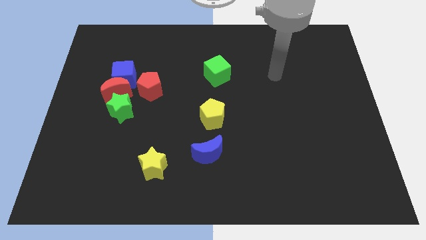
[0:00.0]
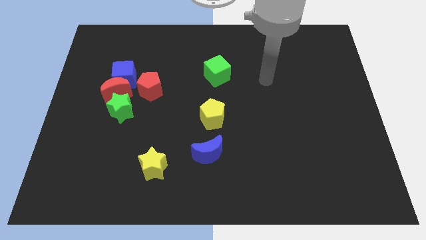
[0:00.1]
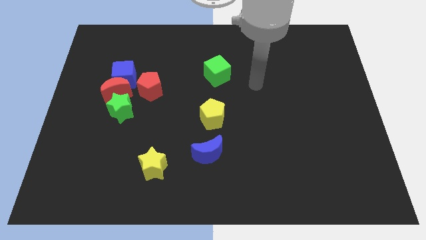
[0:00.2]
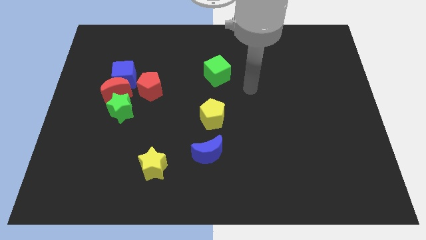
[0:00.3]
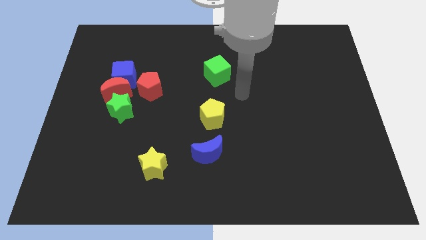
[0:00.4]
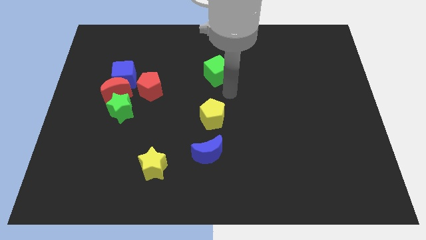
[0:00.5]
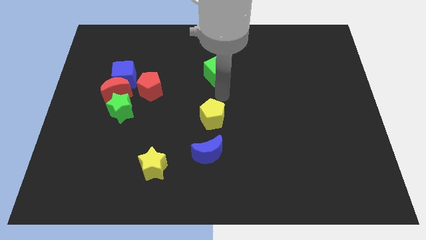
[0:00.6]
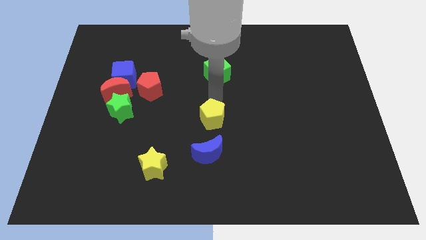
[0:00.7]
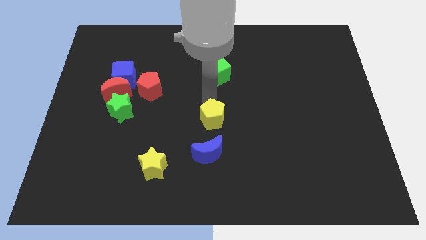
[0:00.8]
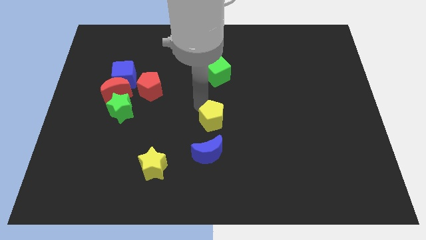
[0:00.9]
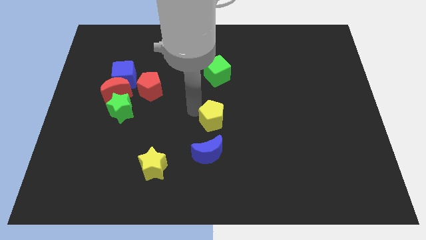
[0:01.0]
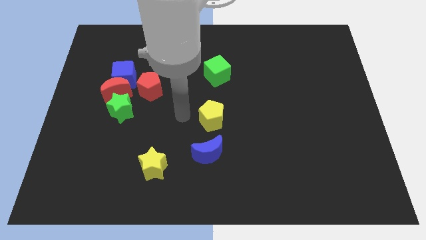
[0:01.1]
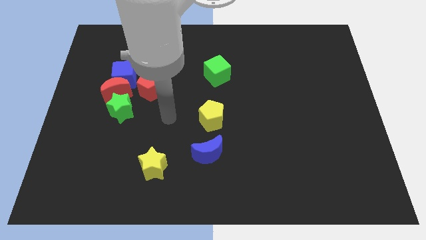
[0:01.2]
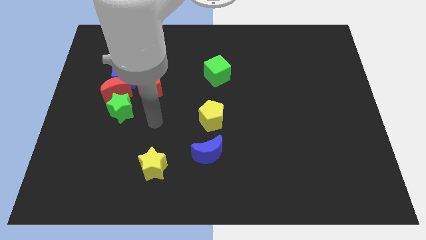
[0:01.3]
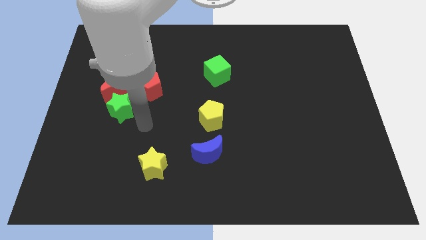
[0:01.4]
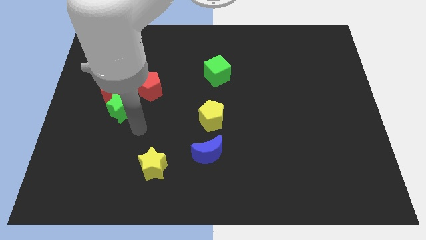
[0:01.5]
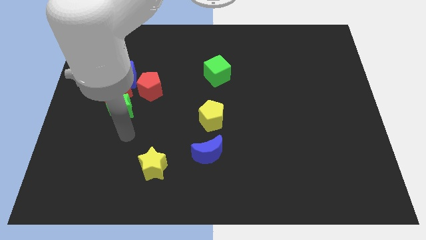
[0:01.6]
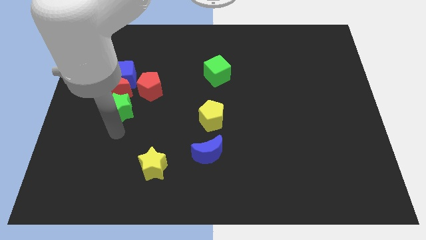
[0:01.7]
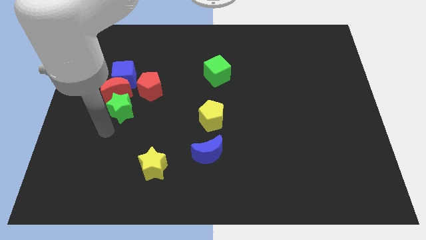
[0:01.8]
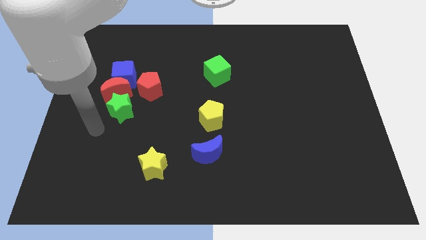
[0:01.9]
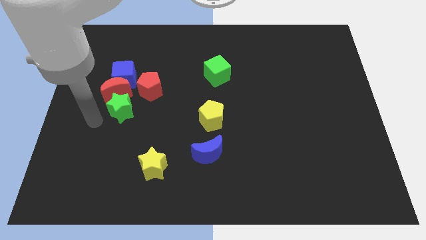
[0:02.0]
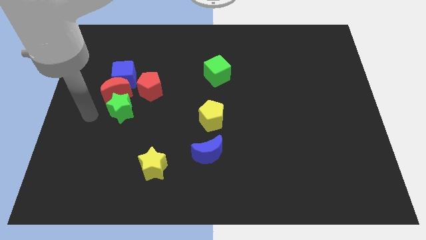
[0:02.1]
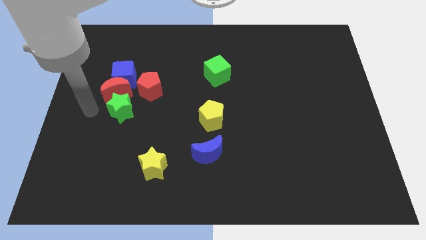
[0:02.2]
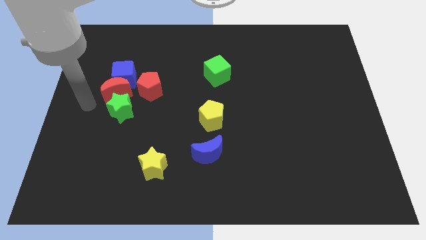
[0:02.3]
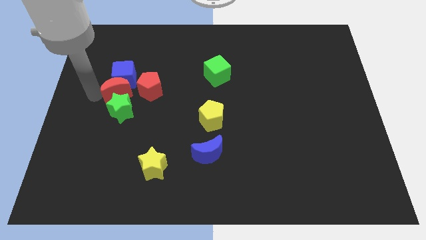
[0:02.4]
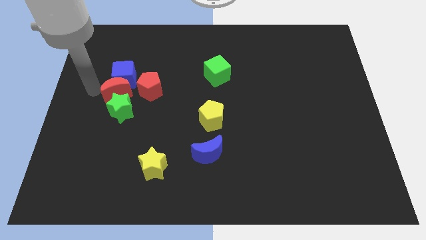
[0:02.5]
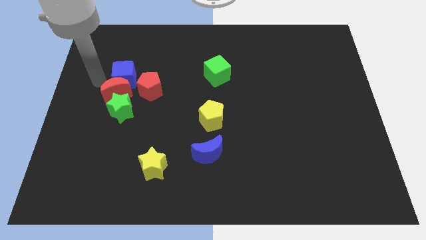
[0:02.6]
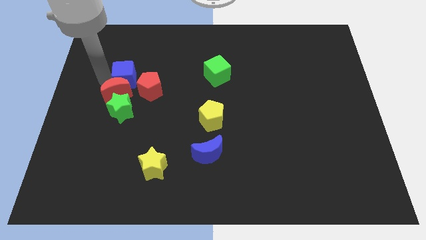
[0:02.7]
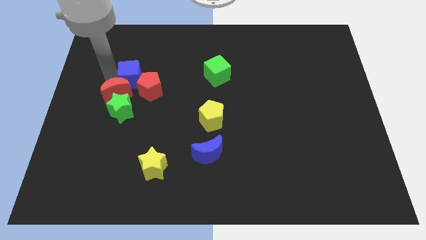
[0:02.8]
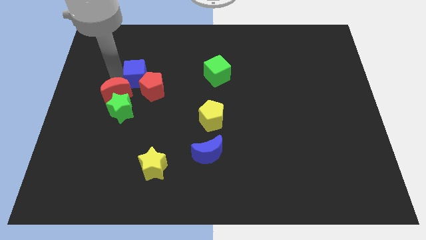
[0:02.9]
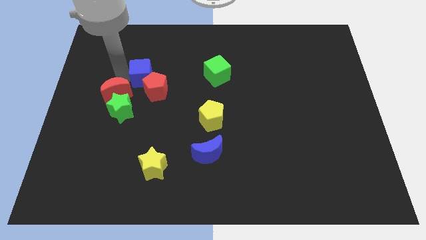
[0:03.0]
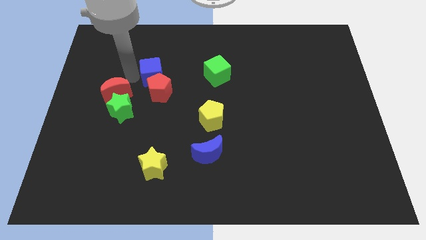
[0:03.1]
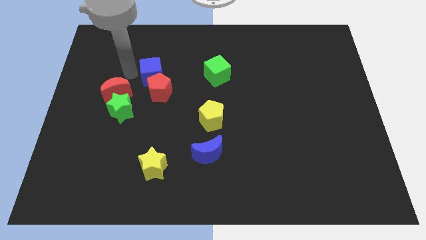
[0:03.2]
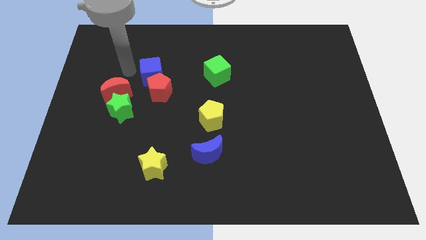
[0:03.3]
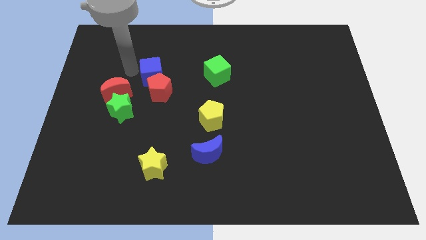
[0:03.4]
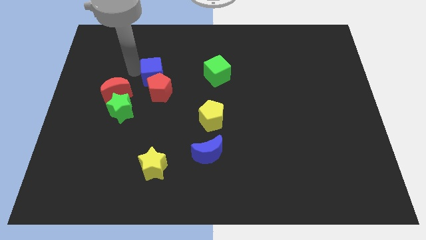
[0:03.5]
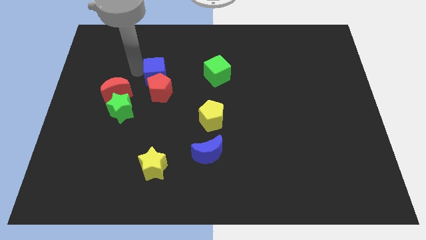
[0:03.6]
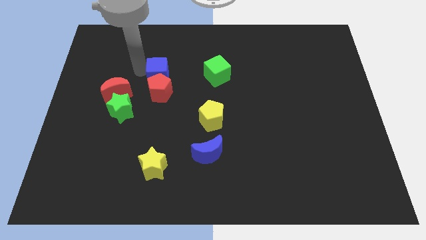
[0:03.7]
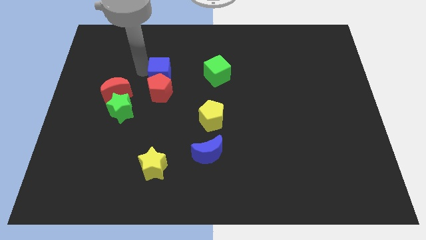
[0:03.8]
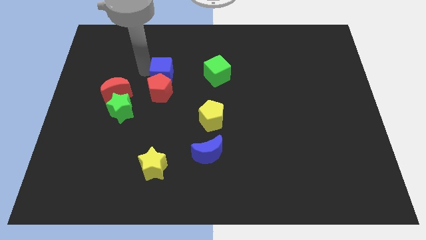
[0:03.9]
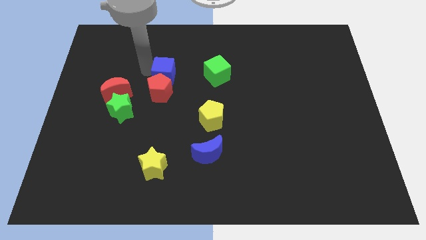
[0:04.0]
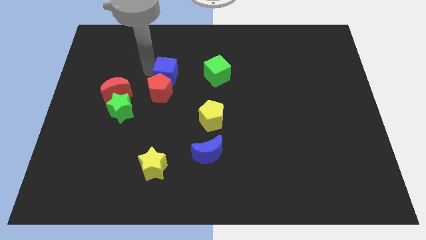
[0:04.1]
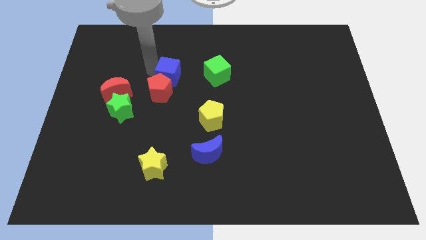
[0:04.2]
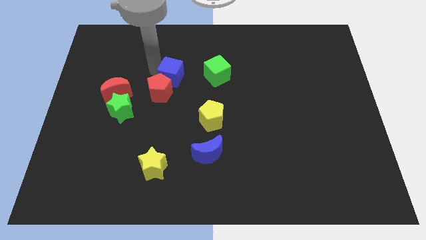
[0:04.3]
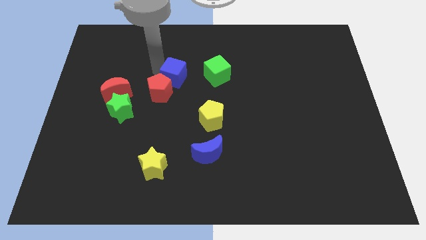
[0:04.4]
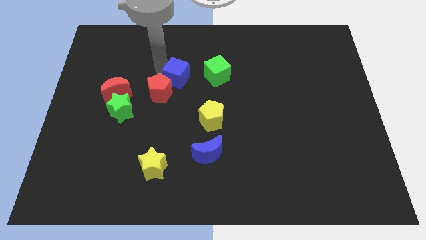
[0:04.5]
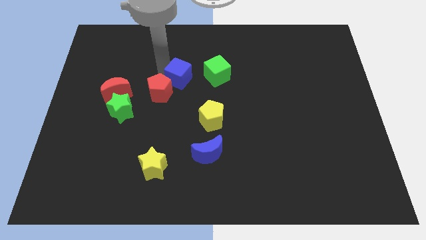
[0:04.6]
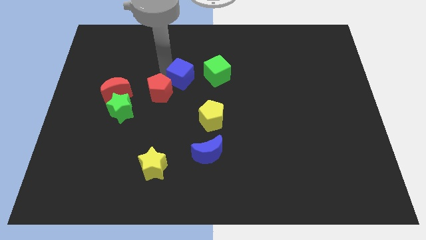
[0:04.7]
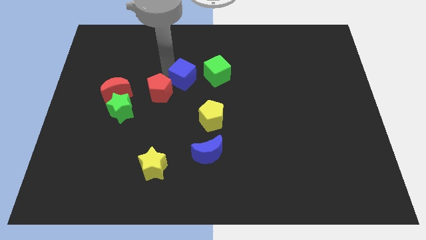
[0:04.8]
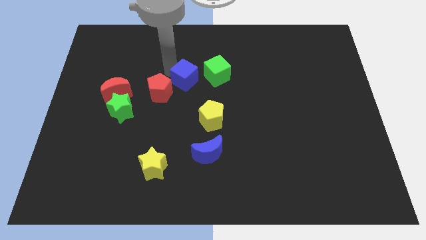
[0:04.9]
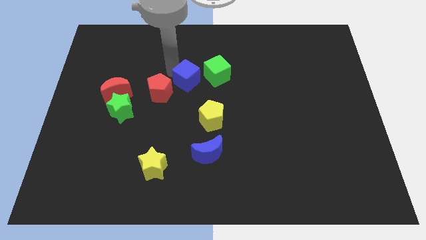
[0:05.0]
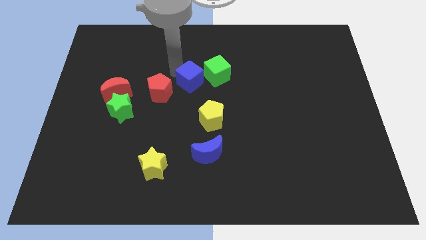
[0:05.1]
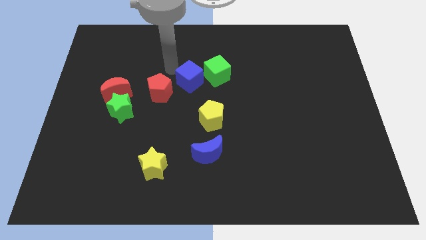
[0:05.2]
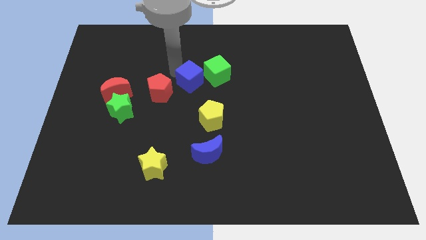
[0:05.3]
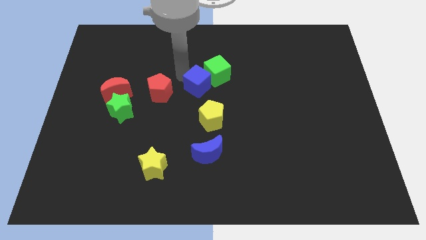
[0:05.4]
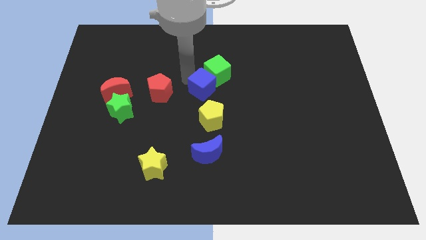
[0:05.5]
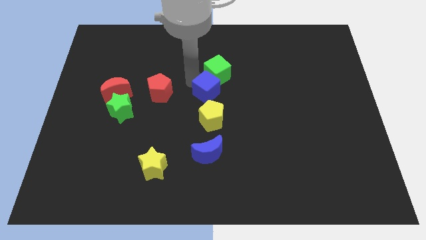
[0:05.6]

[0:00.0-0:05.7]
push the blue cube right

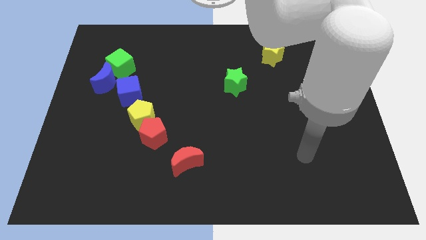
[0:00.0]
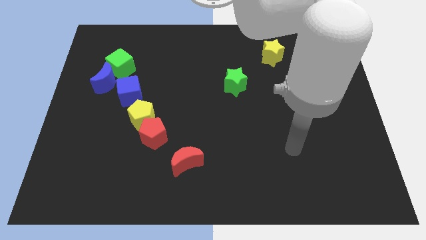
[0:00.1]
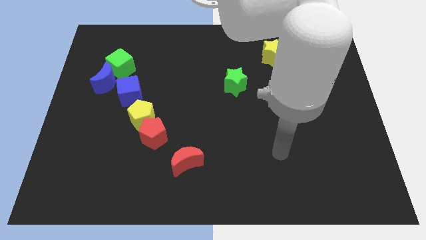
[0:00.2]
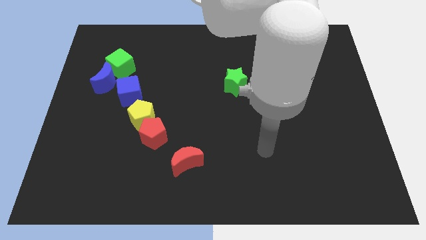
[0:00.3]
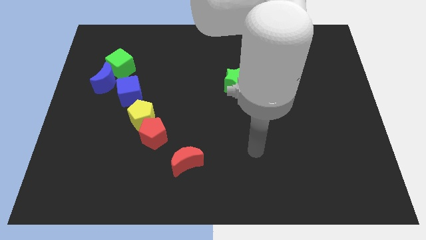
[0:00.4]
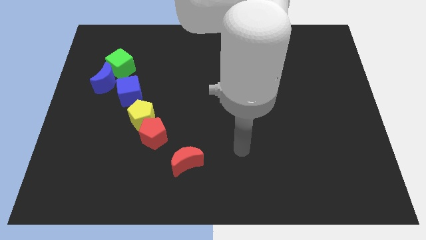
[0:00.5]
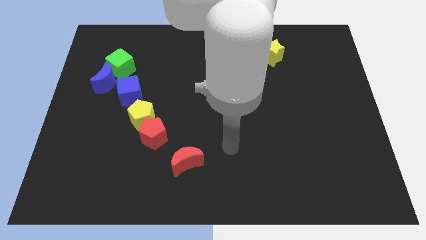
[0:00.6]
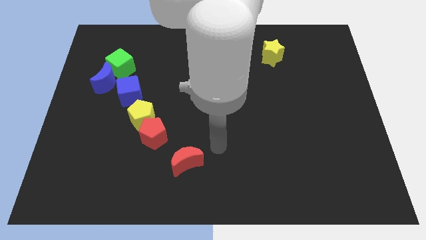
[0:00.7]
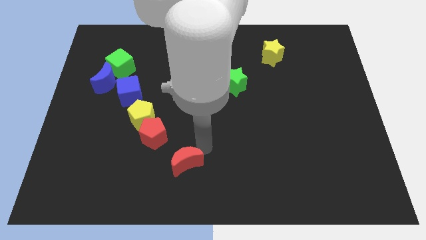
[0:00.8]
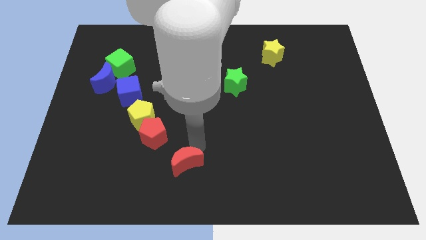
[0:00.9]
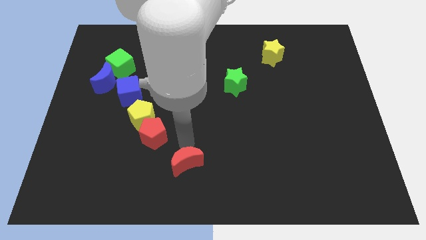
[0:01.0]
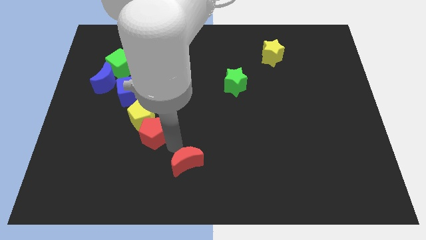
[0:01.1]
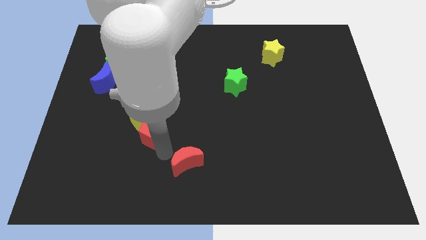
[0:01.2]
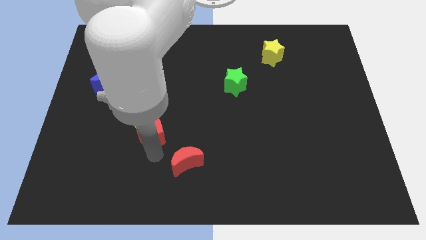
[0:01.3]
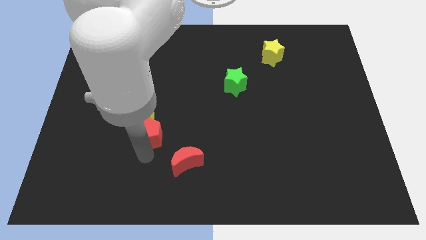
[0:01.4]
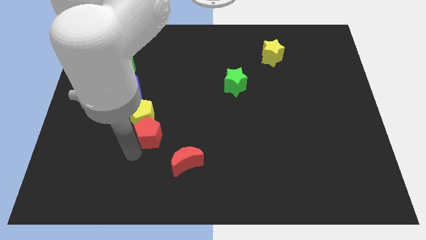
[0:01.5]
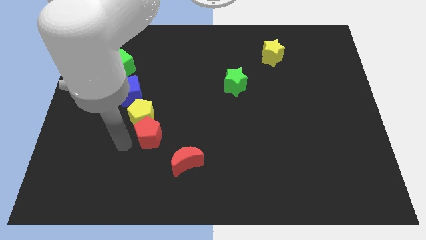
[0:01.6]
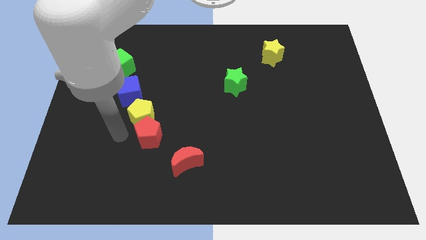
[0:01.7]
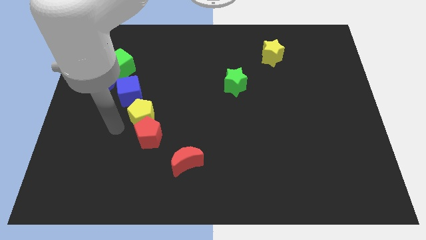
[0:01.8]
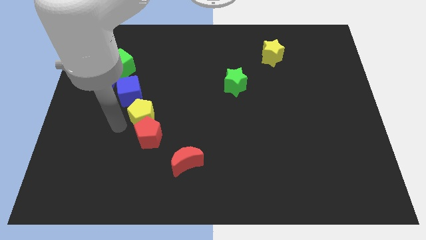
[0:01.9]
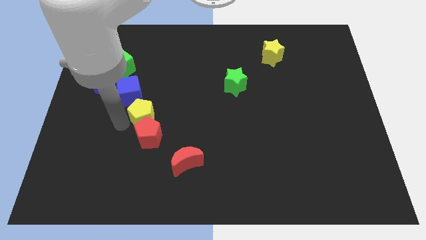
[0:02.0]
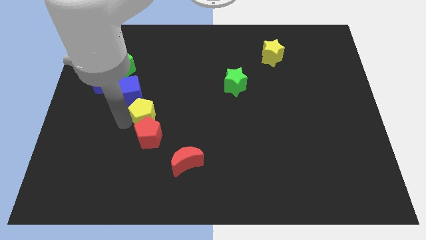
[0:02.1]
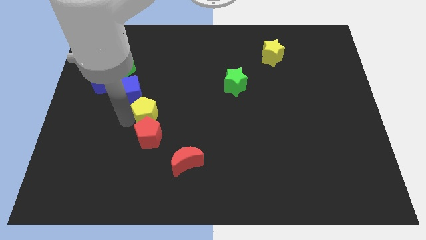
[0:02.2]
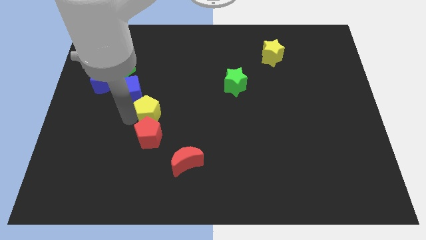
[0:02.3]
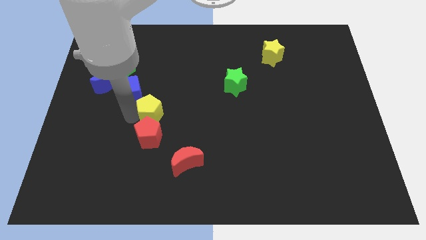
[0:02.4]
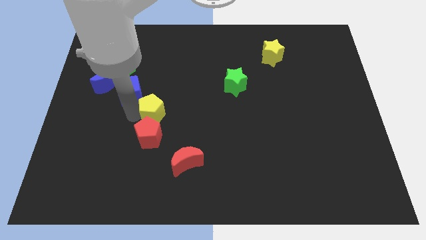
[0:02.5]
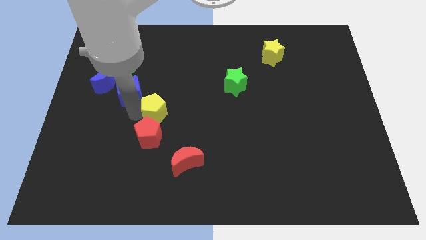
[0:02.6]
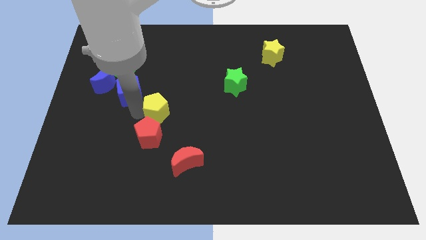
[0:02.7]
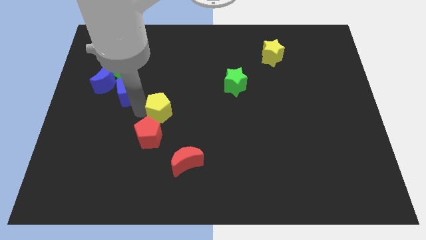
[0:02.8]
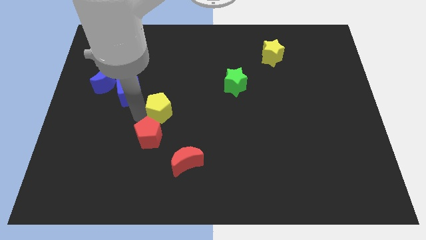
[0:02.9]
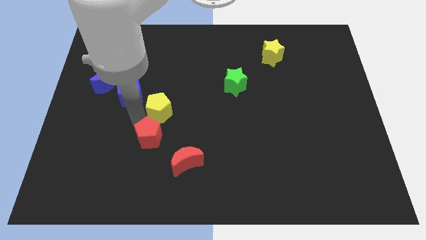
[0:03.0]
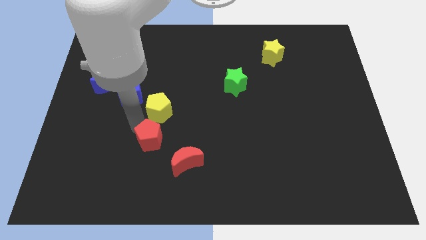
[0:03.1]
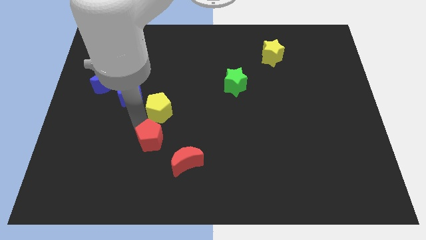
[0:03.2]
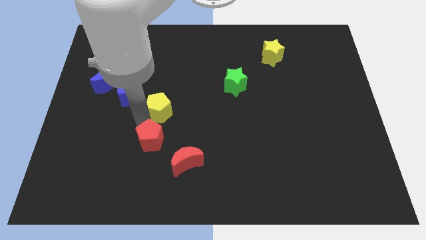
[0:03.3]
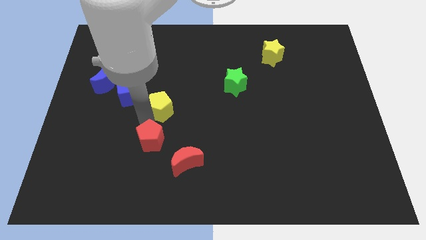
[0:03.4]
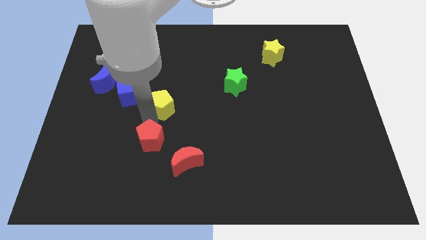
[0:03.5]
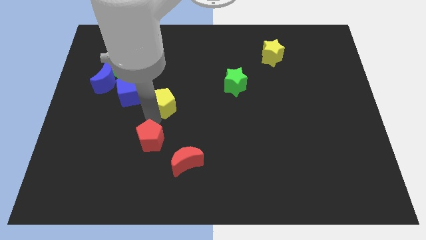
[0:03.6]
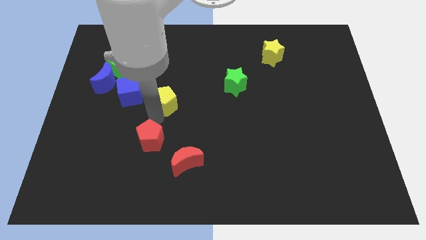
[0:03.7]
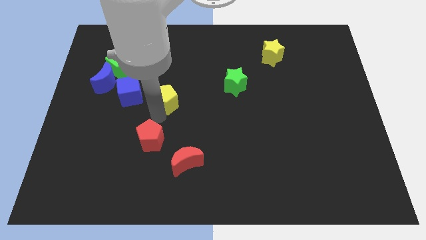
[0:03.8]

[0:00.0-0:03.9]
push the yellow pentagon a little bit up and right
